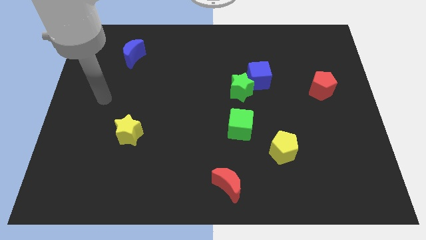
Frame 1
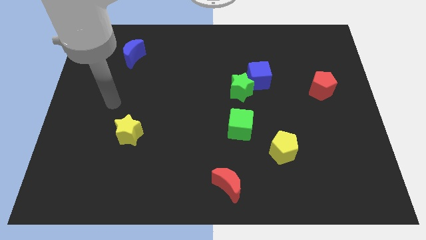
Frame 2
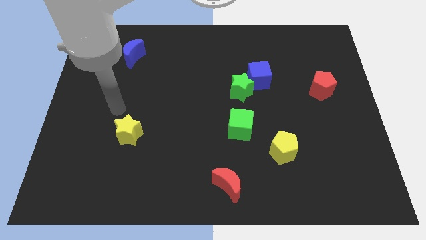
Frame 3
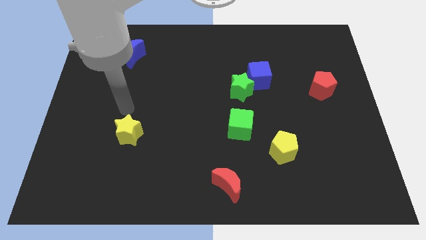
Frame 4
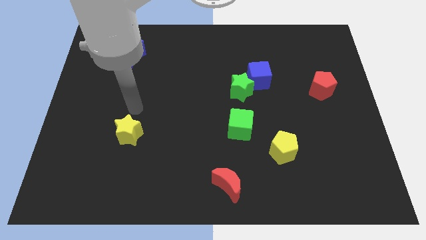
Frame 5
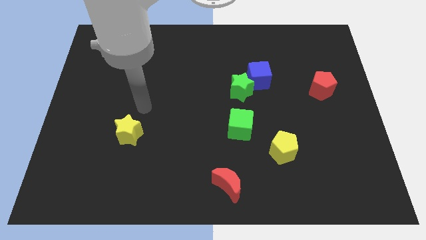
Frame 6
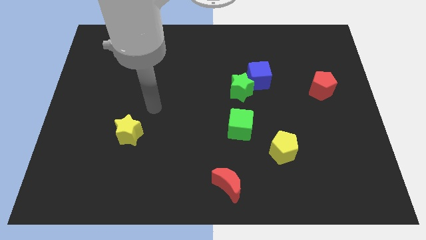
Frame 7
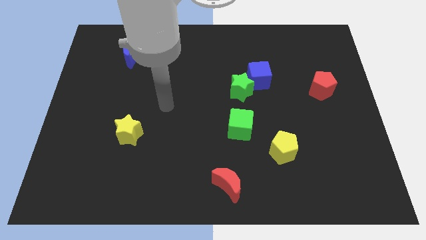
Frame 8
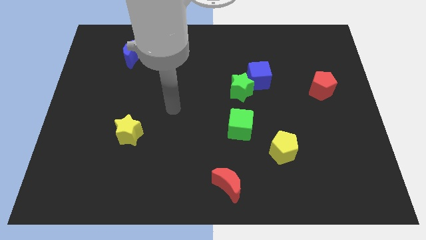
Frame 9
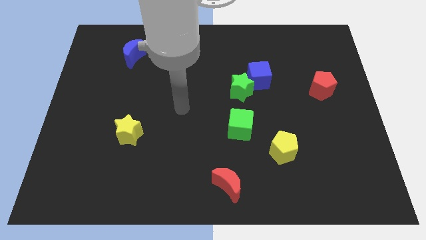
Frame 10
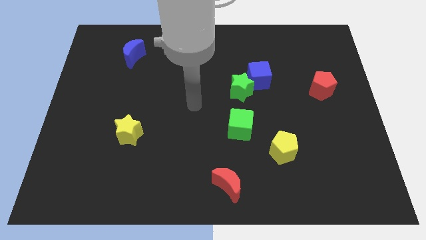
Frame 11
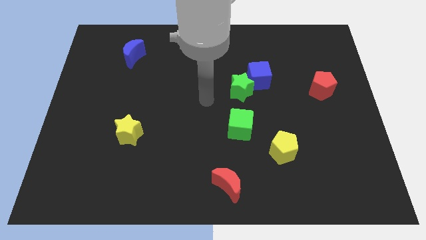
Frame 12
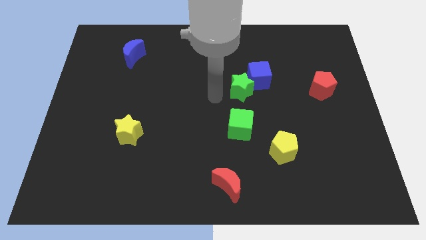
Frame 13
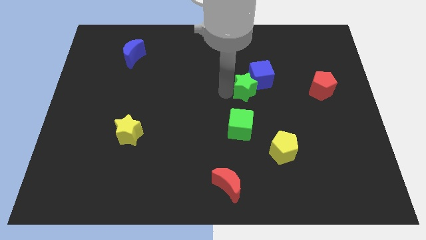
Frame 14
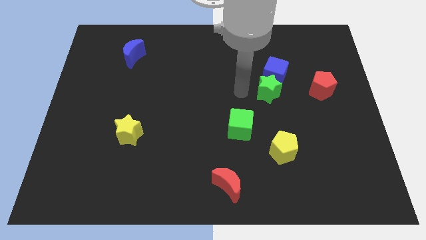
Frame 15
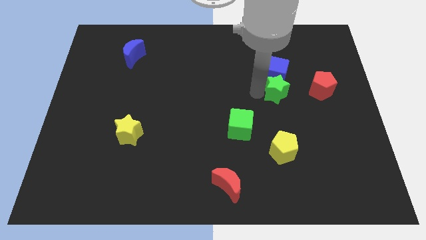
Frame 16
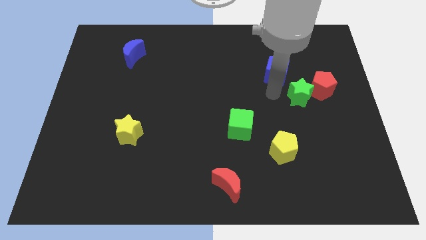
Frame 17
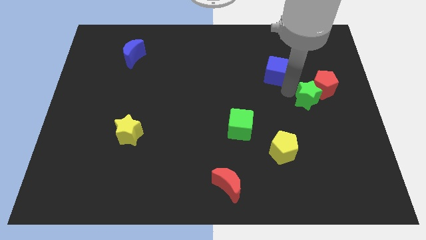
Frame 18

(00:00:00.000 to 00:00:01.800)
separate the blue cube from the green star

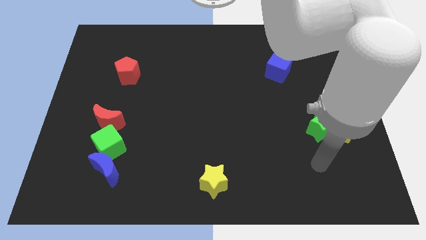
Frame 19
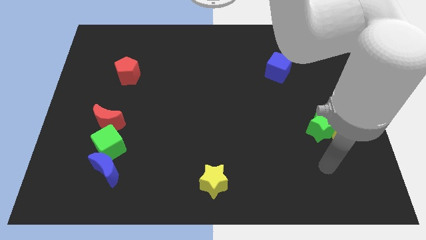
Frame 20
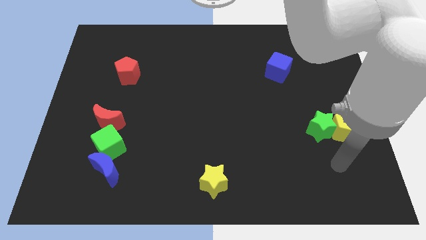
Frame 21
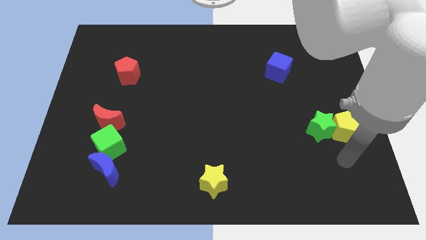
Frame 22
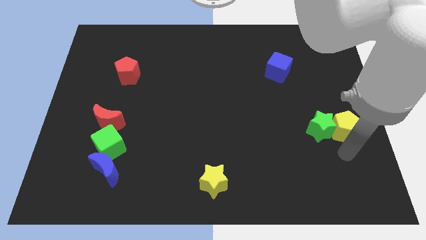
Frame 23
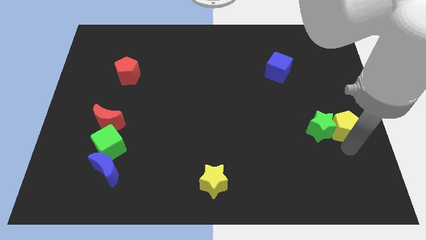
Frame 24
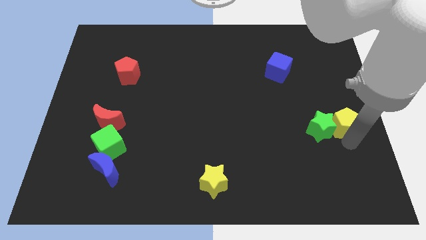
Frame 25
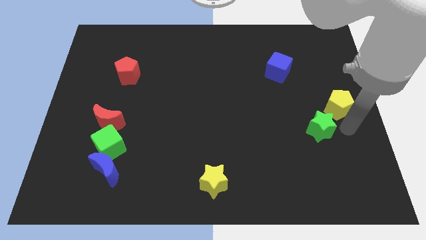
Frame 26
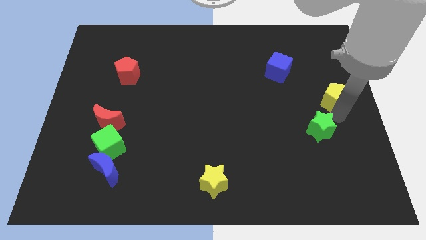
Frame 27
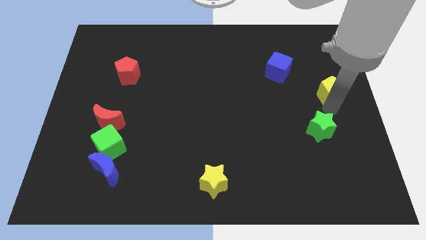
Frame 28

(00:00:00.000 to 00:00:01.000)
move the green star away from the yellow pentagon

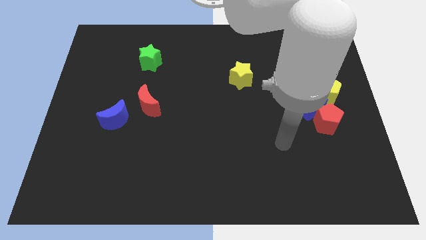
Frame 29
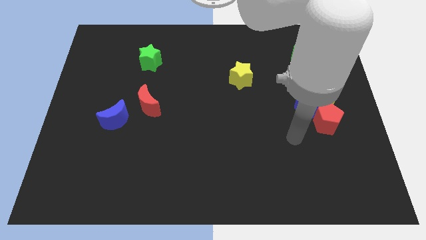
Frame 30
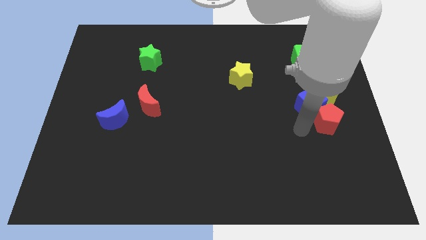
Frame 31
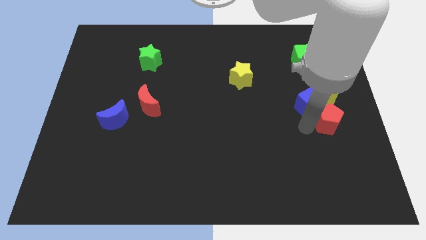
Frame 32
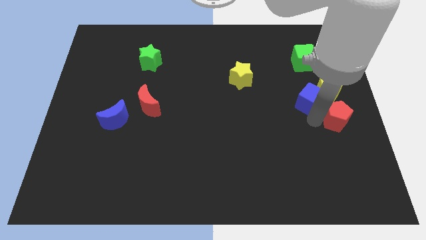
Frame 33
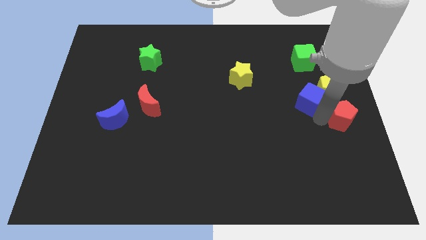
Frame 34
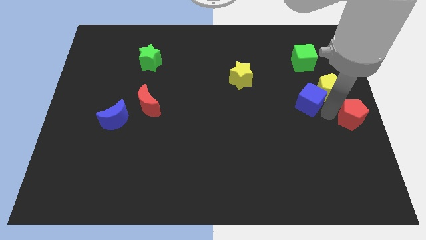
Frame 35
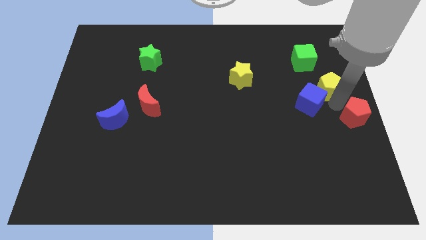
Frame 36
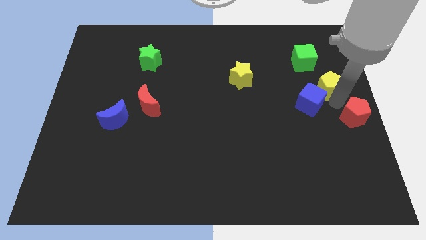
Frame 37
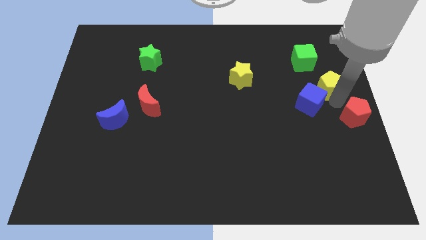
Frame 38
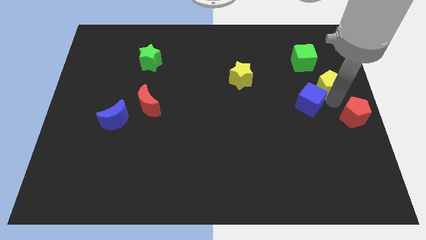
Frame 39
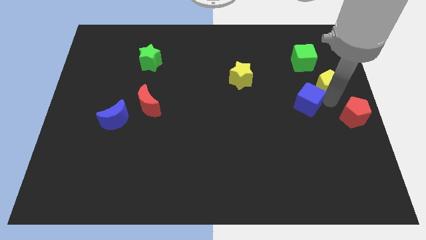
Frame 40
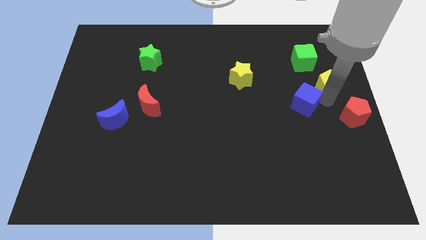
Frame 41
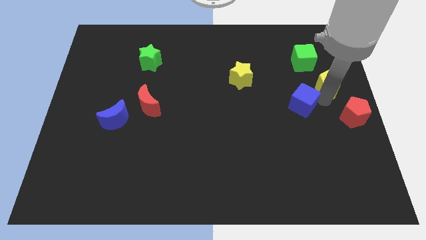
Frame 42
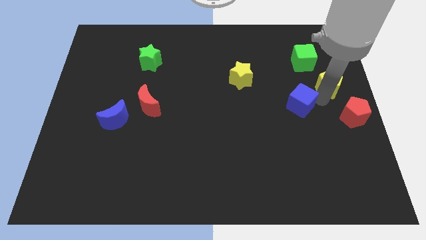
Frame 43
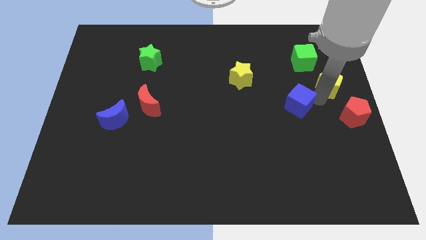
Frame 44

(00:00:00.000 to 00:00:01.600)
separate the blue cube from the red pentagon and yellow pentagon

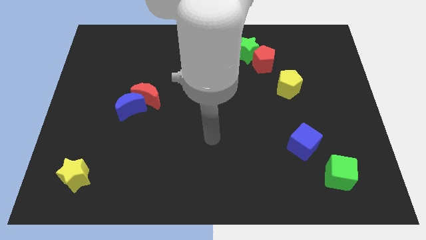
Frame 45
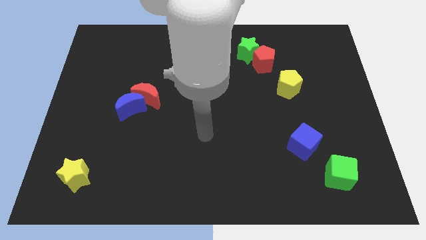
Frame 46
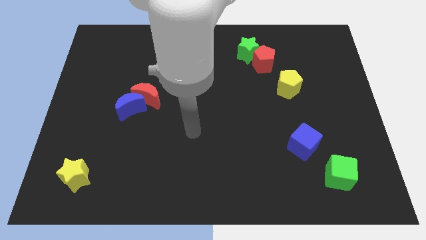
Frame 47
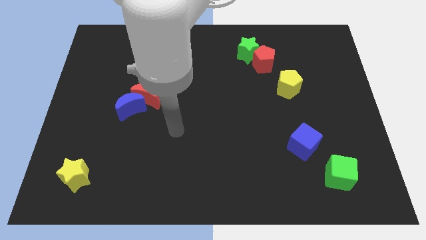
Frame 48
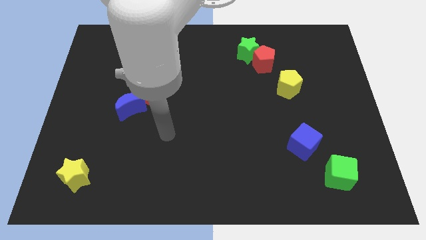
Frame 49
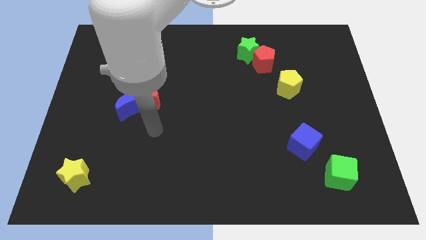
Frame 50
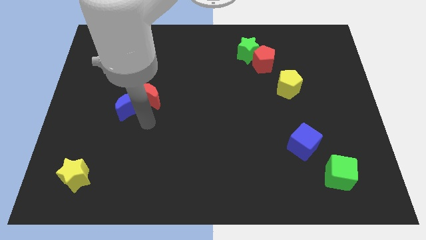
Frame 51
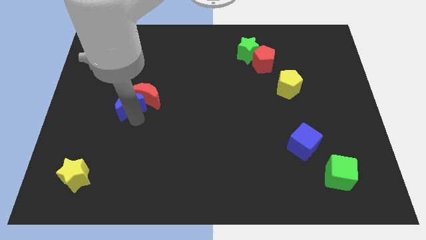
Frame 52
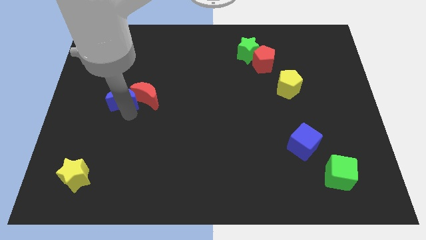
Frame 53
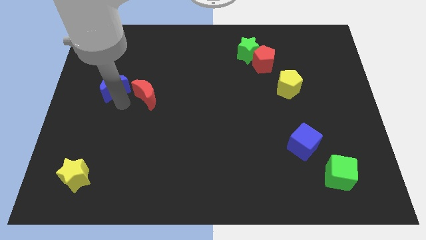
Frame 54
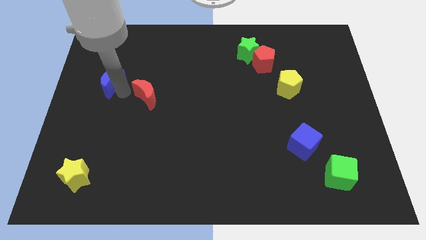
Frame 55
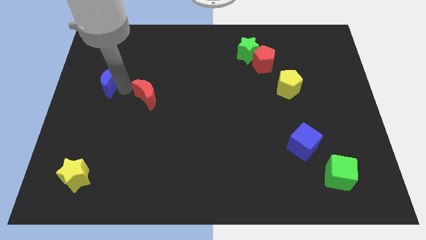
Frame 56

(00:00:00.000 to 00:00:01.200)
pull the red moon apart from the blue moon

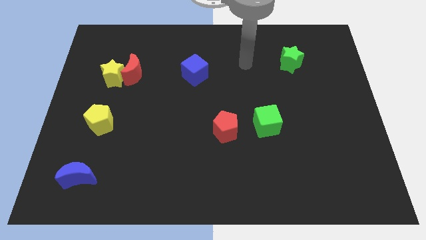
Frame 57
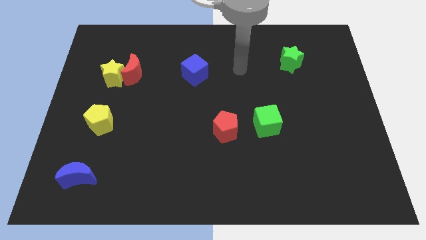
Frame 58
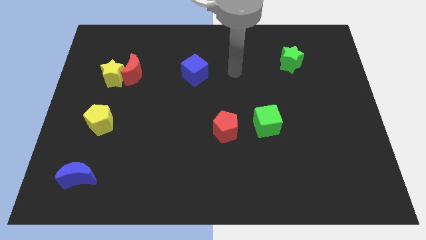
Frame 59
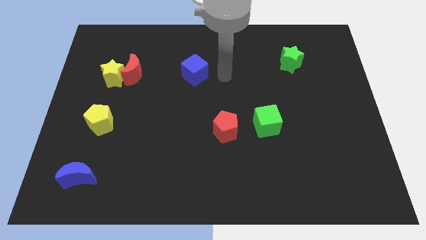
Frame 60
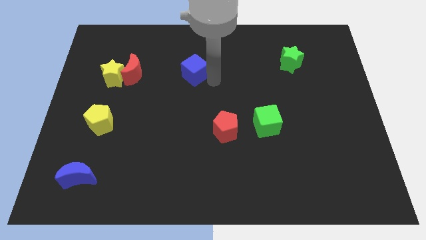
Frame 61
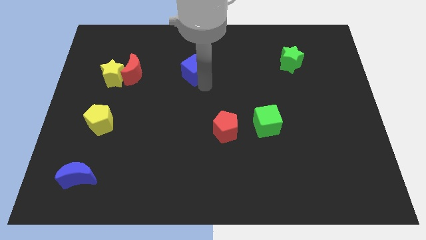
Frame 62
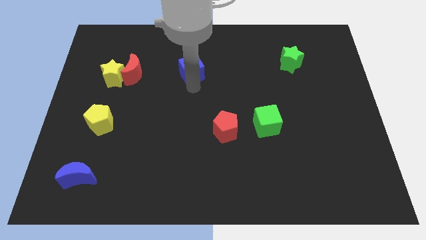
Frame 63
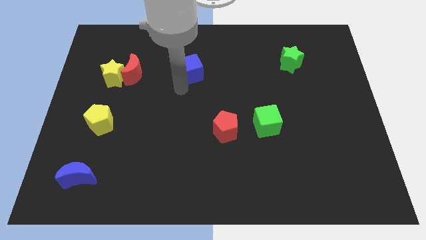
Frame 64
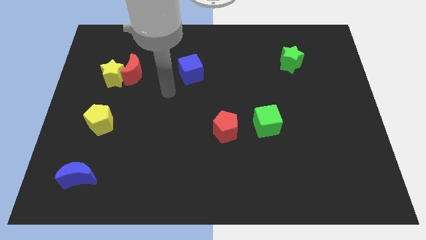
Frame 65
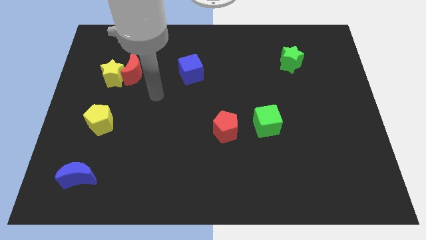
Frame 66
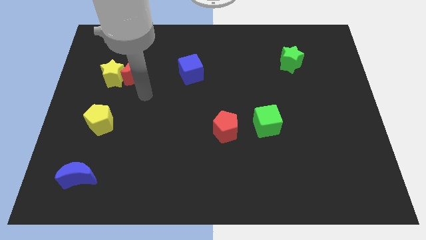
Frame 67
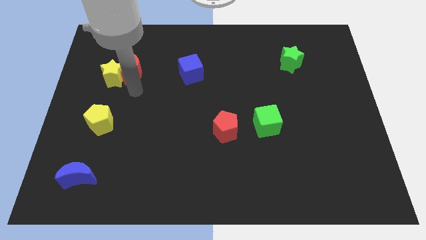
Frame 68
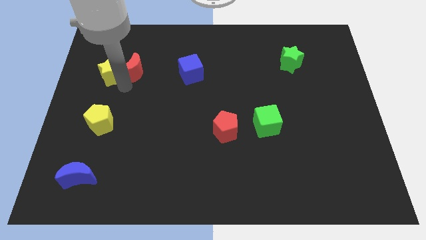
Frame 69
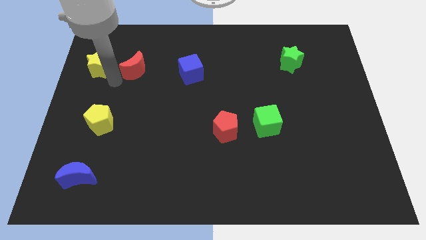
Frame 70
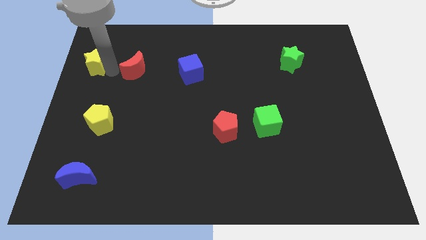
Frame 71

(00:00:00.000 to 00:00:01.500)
move the red moon away from the yellow star

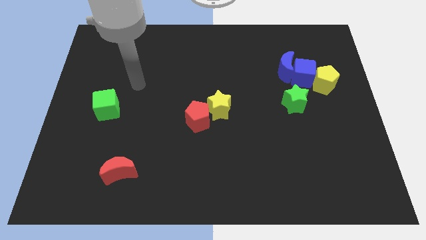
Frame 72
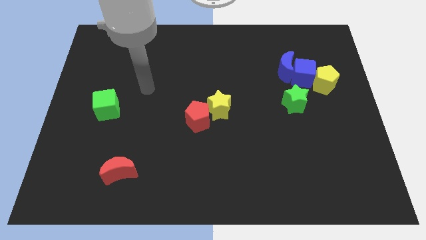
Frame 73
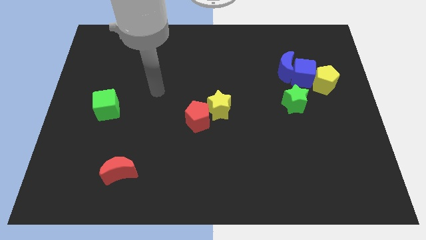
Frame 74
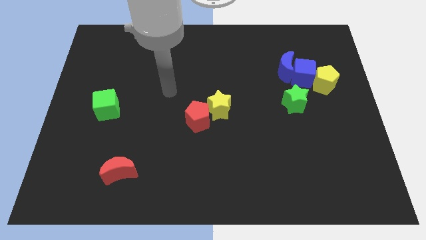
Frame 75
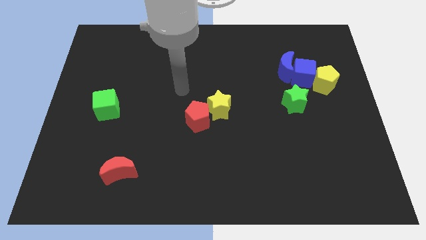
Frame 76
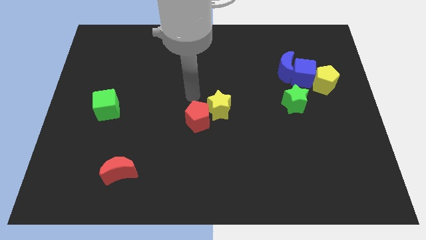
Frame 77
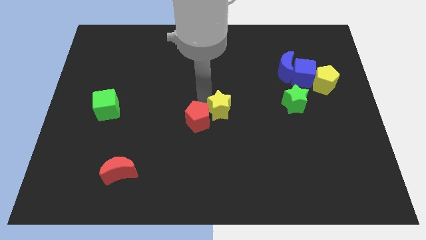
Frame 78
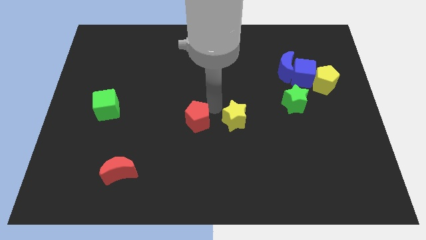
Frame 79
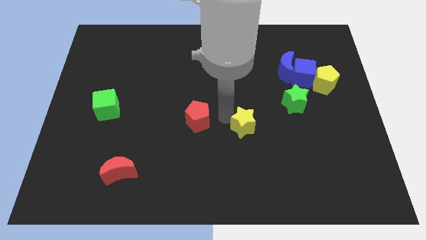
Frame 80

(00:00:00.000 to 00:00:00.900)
pull the red pentagon apart from the yellow star

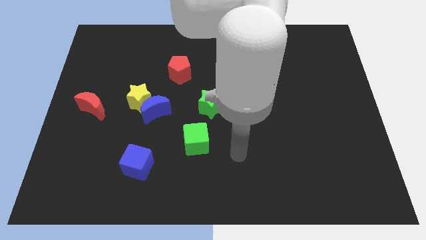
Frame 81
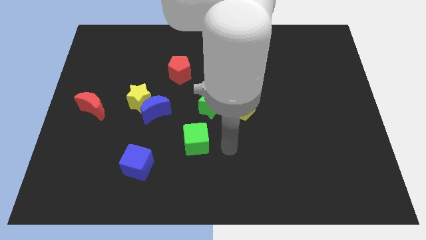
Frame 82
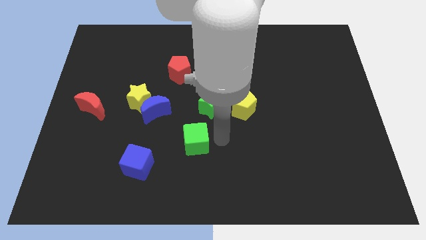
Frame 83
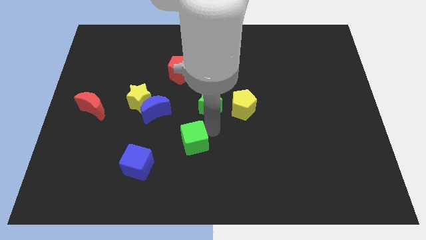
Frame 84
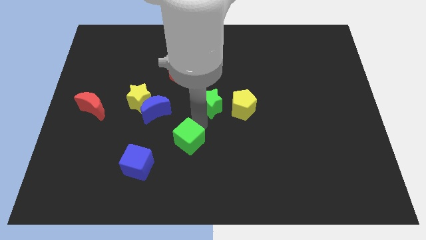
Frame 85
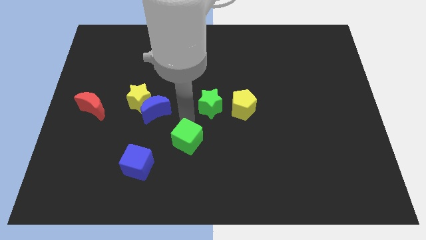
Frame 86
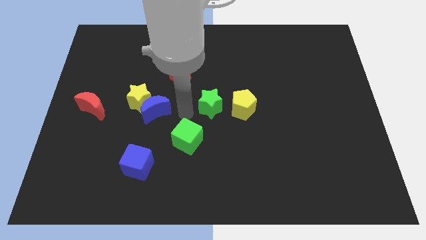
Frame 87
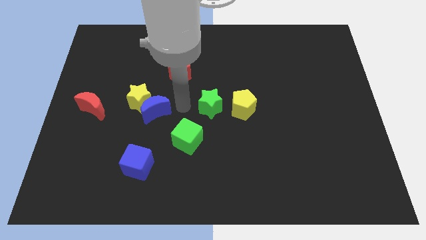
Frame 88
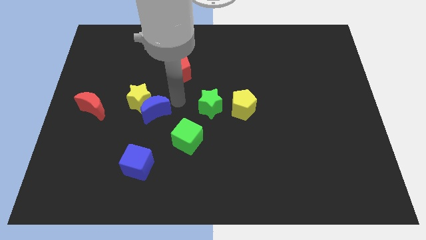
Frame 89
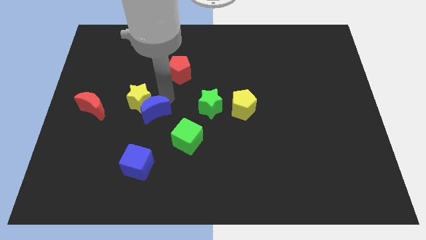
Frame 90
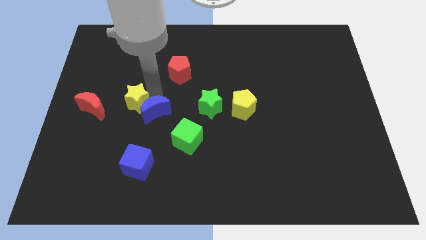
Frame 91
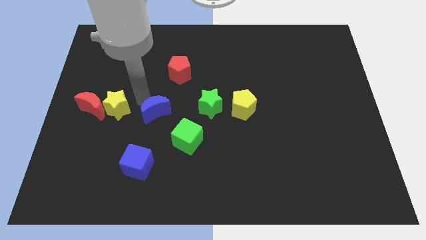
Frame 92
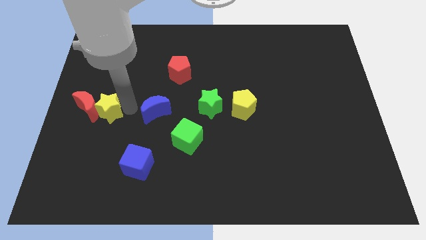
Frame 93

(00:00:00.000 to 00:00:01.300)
move the blue moon away from the yellow star
